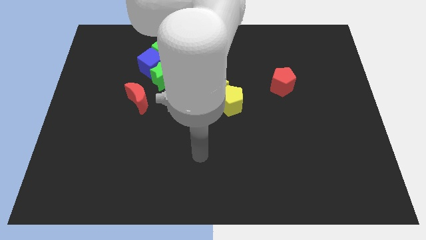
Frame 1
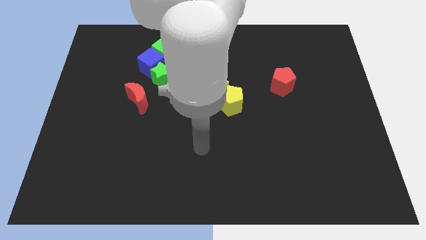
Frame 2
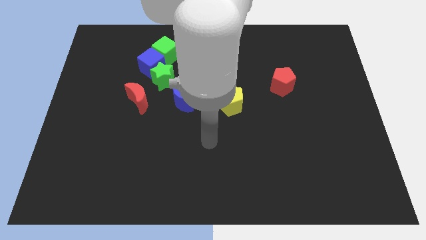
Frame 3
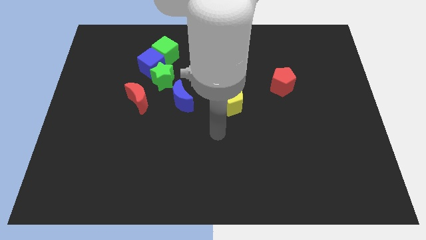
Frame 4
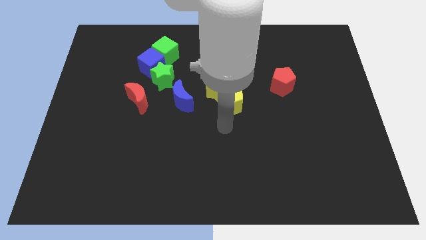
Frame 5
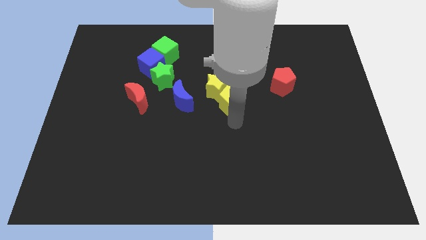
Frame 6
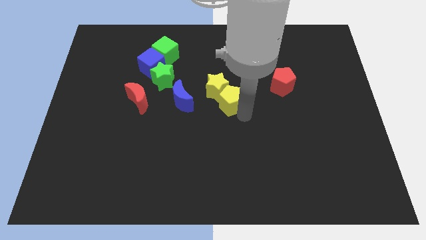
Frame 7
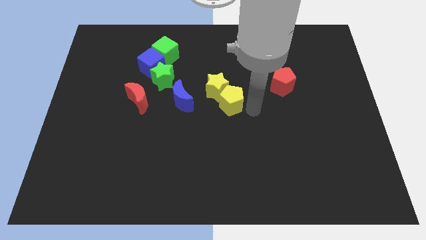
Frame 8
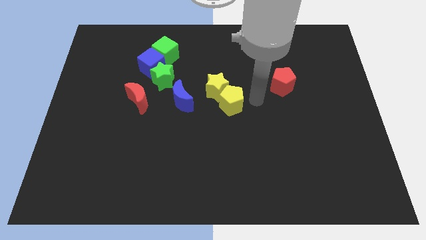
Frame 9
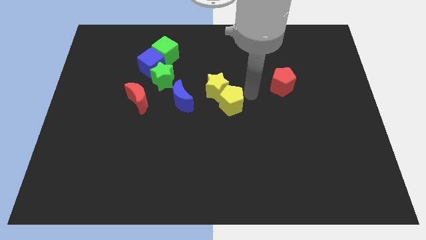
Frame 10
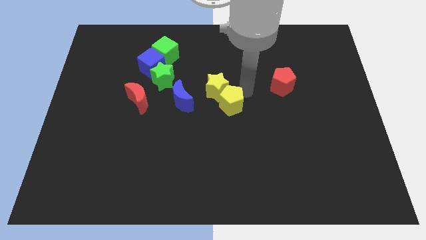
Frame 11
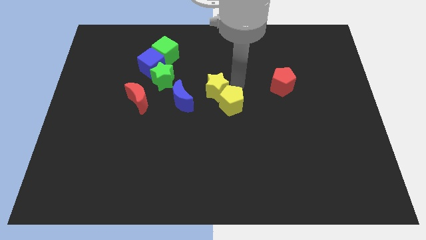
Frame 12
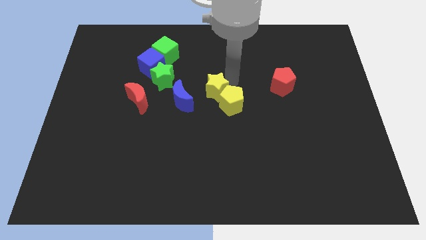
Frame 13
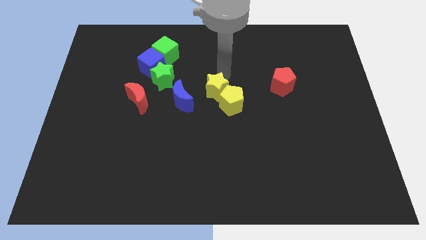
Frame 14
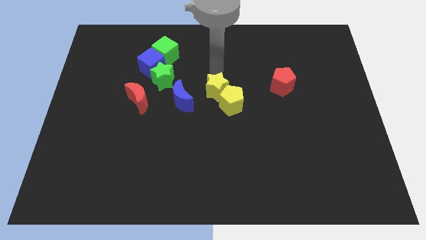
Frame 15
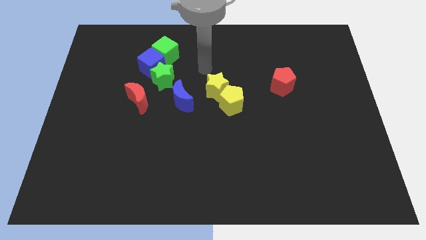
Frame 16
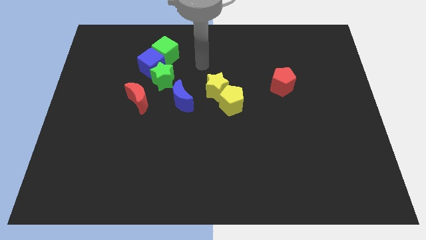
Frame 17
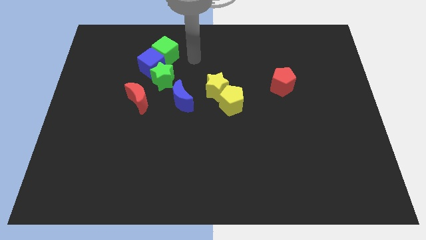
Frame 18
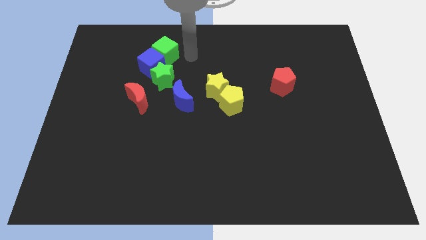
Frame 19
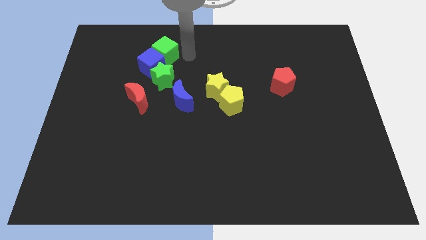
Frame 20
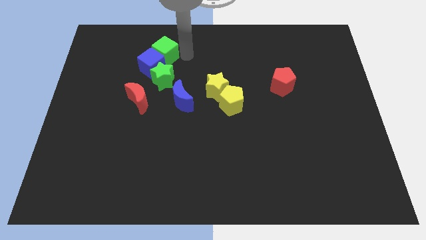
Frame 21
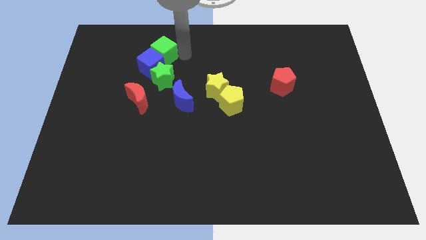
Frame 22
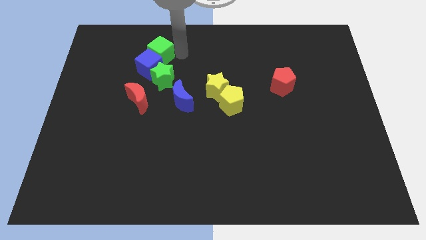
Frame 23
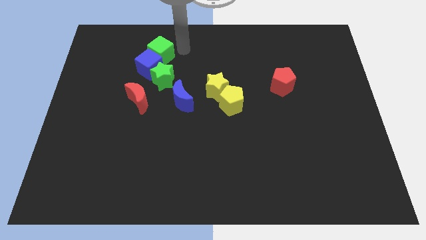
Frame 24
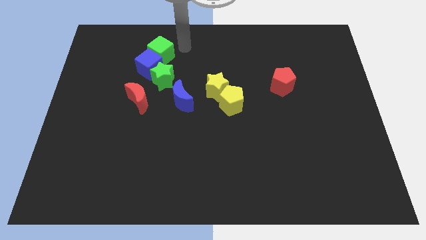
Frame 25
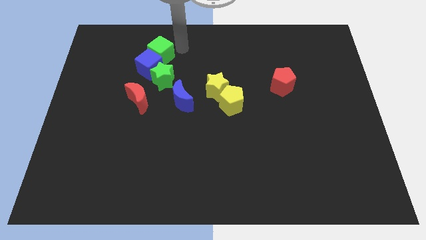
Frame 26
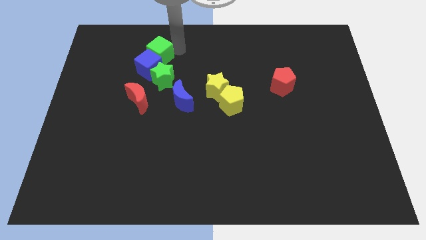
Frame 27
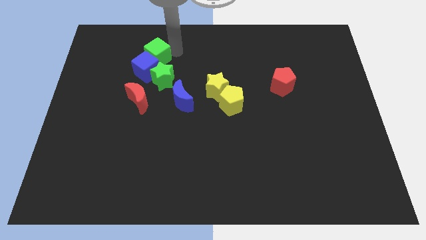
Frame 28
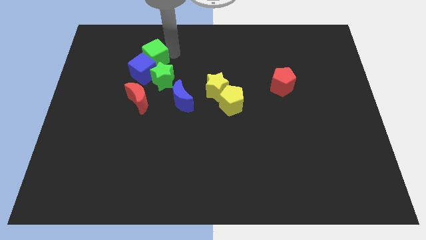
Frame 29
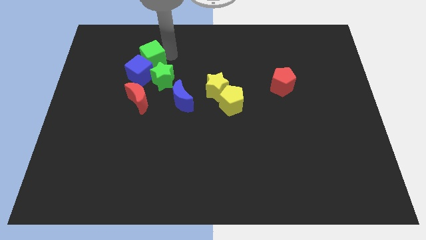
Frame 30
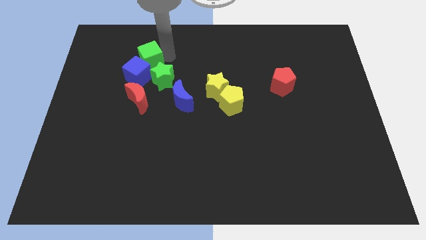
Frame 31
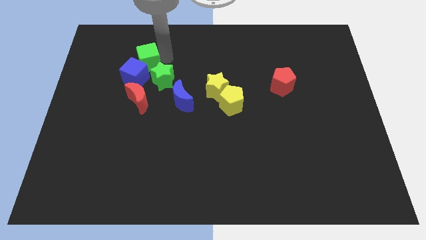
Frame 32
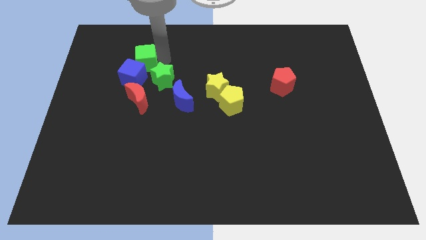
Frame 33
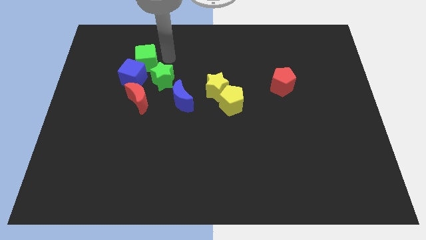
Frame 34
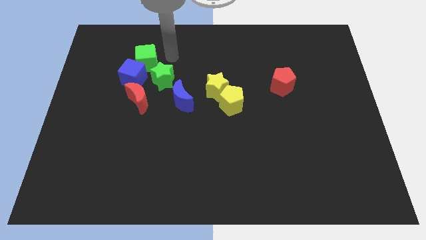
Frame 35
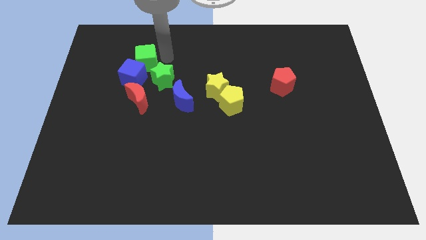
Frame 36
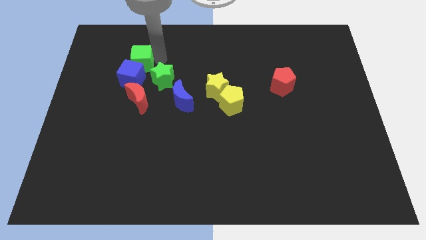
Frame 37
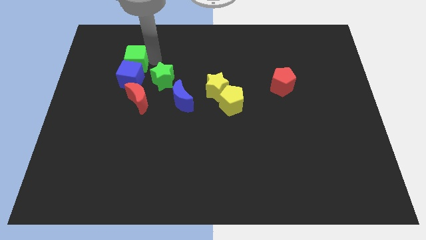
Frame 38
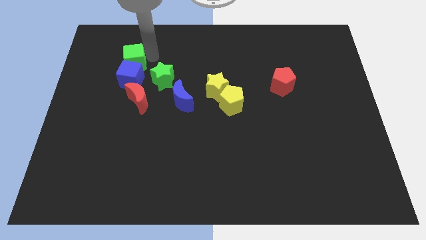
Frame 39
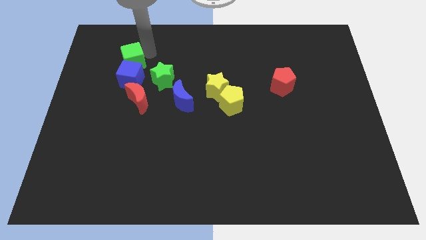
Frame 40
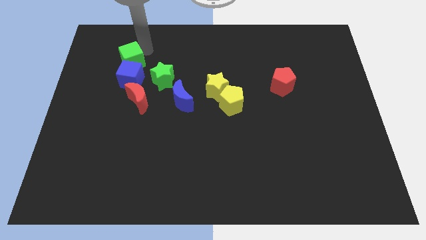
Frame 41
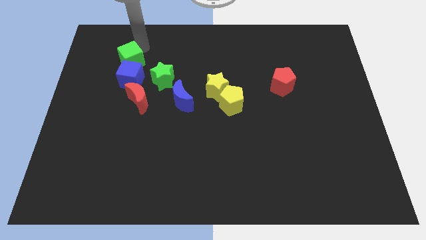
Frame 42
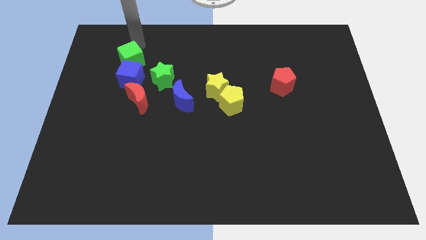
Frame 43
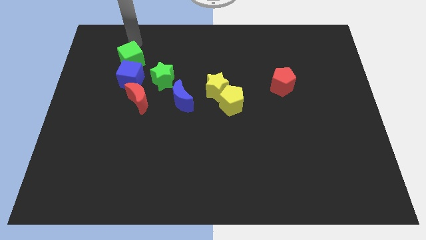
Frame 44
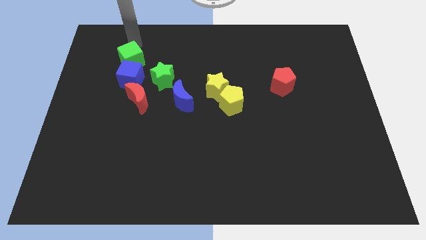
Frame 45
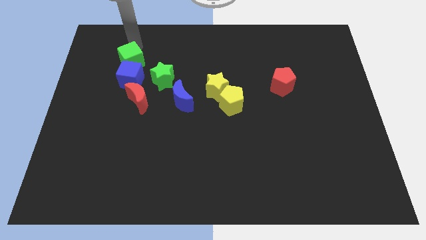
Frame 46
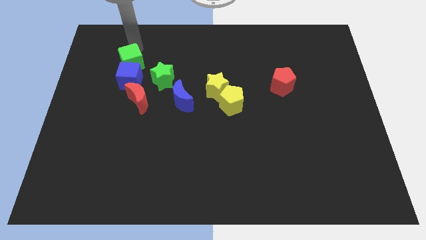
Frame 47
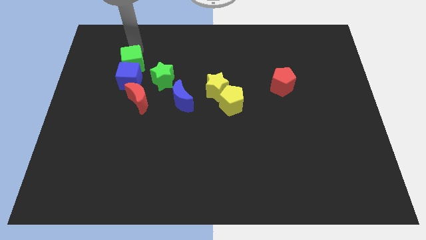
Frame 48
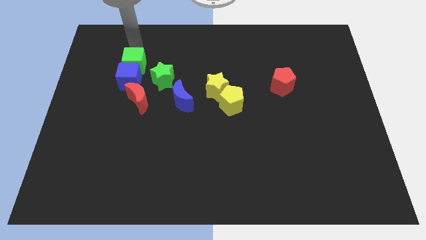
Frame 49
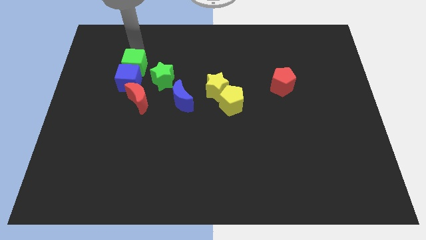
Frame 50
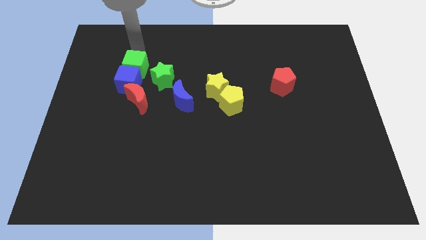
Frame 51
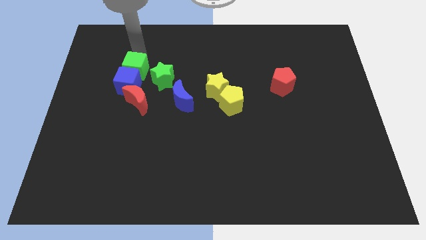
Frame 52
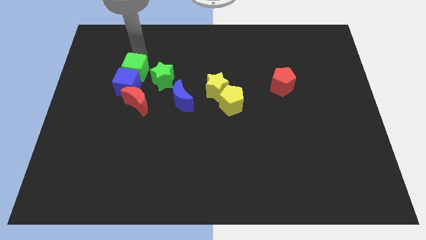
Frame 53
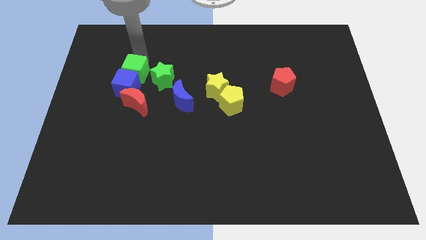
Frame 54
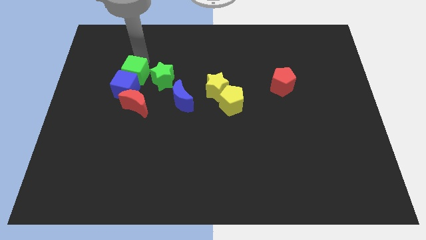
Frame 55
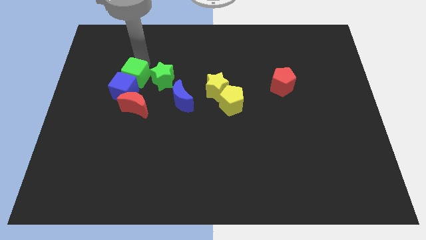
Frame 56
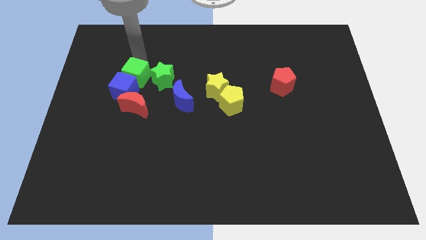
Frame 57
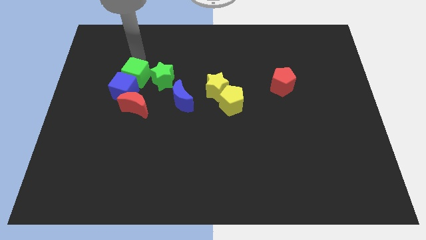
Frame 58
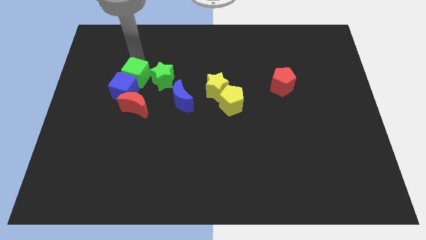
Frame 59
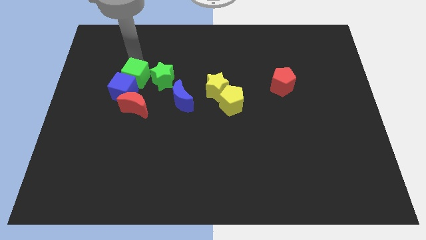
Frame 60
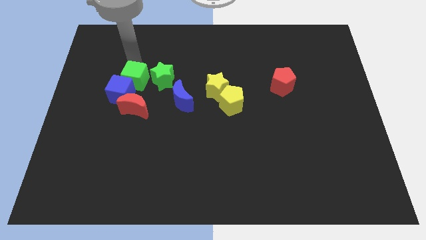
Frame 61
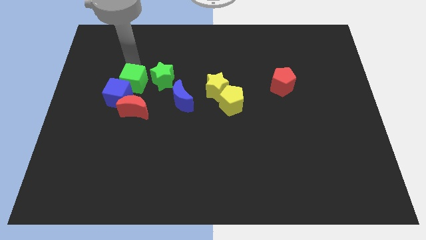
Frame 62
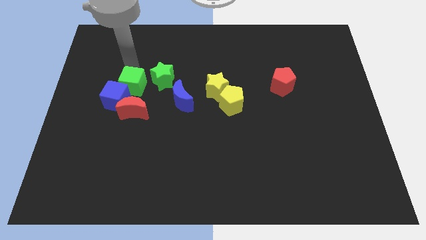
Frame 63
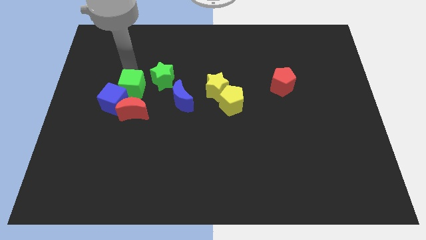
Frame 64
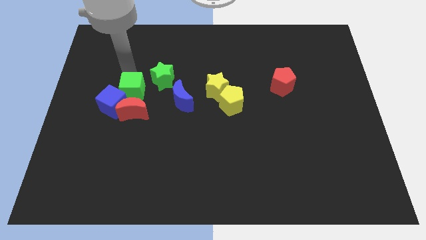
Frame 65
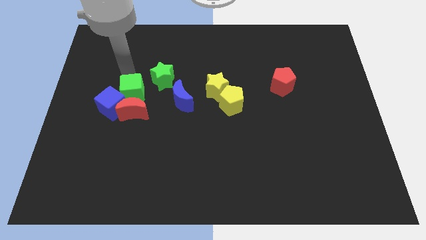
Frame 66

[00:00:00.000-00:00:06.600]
slide the green cube to the red moon
